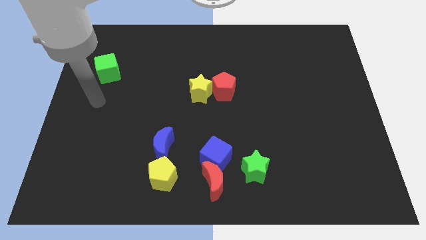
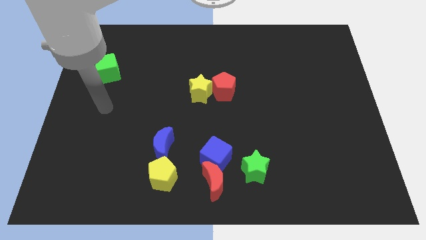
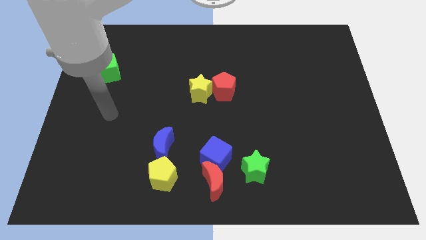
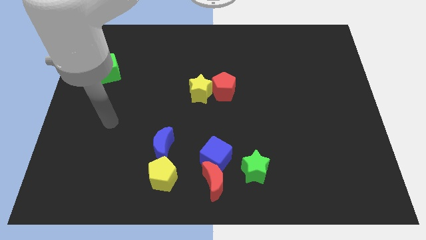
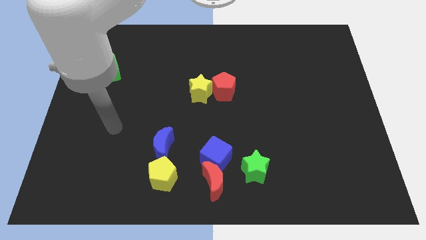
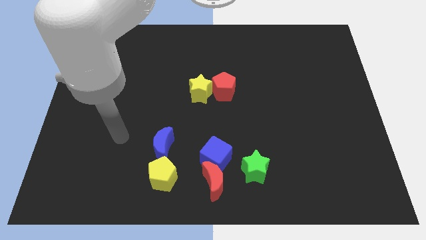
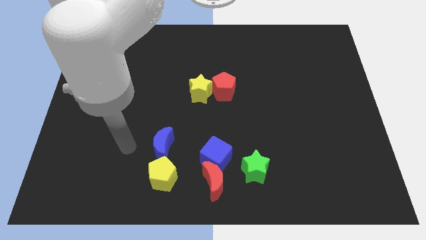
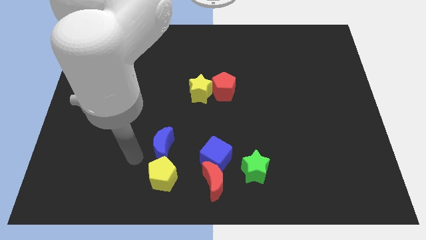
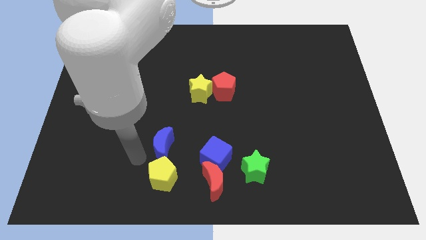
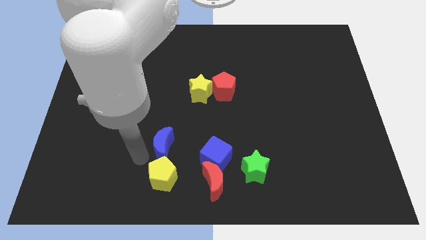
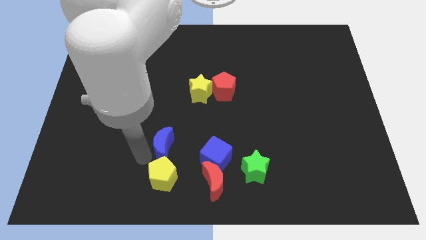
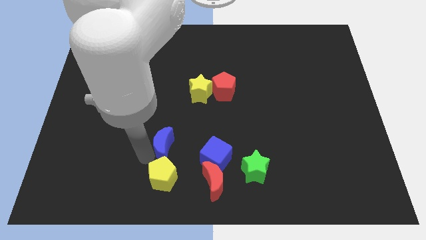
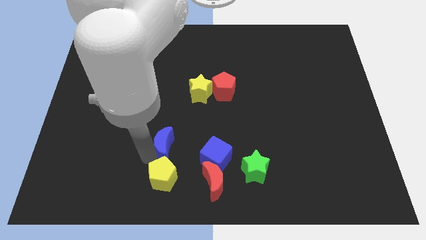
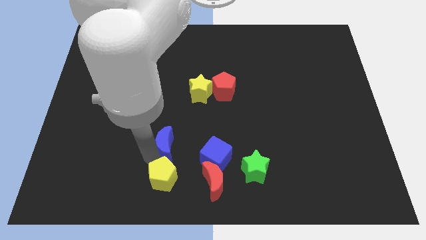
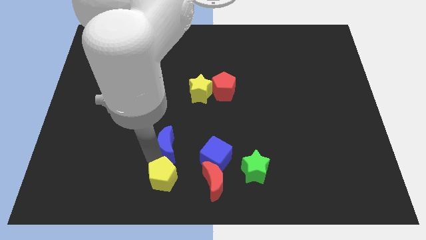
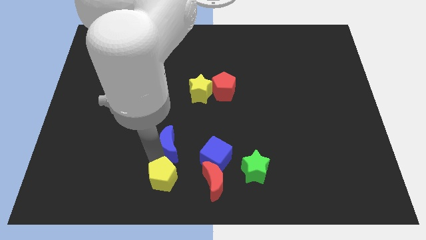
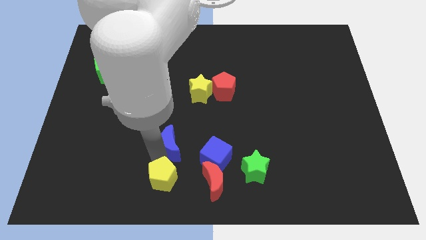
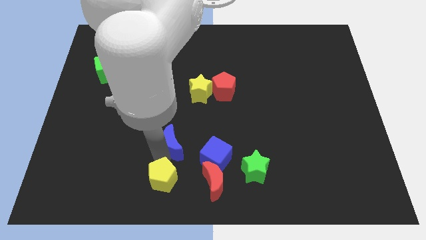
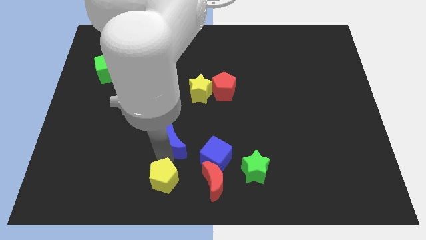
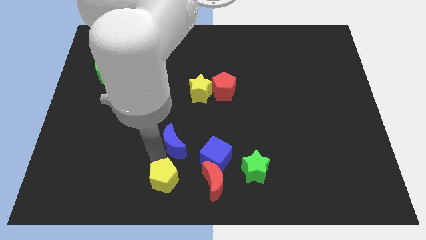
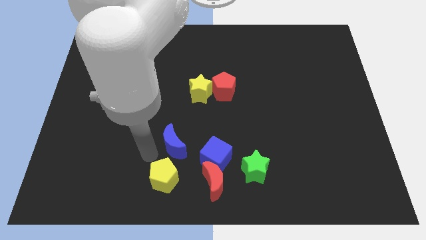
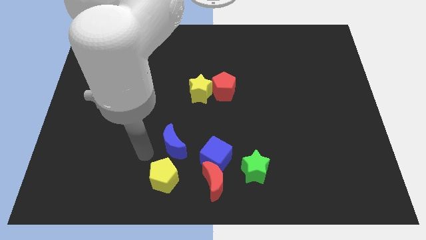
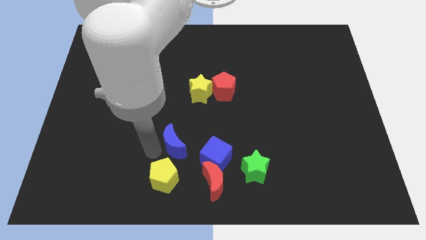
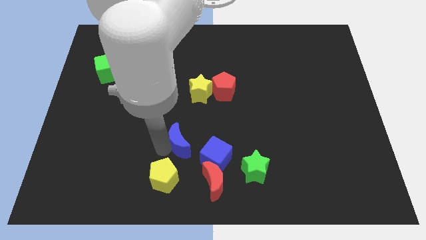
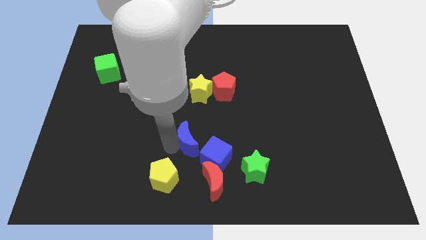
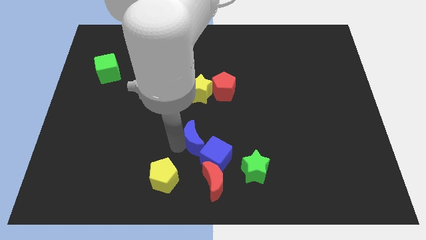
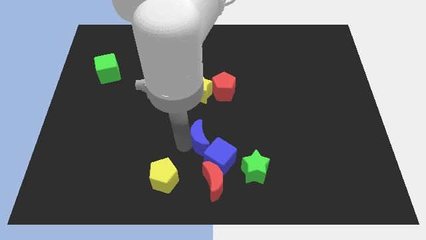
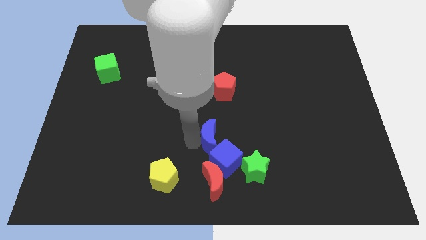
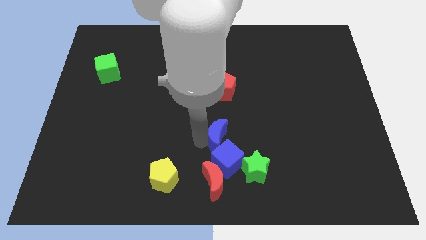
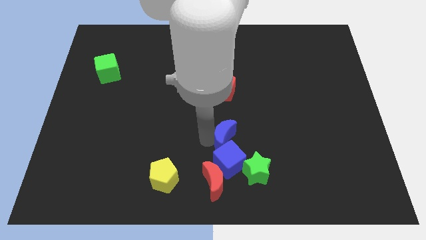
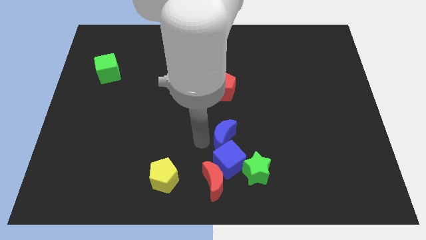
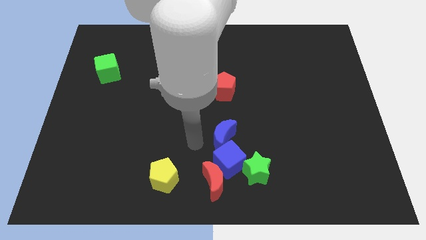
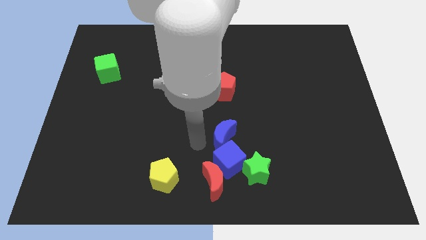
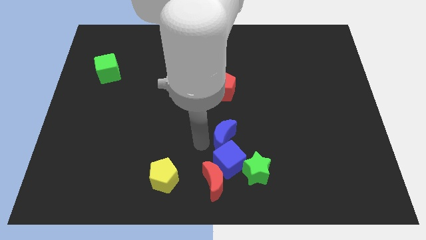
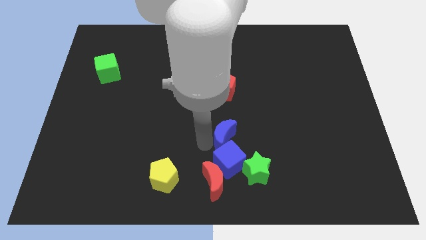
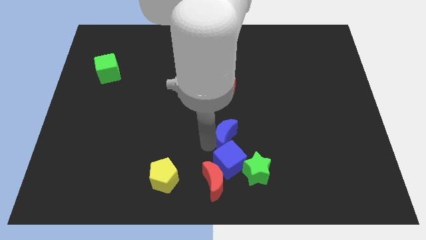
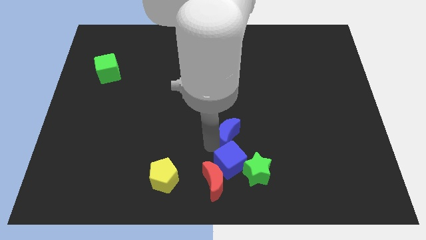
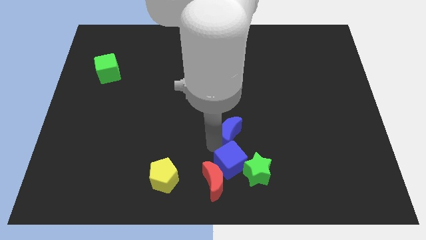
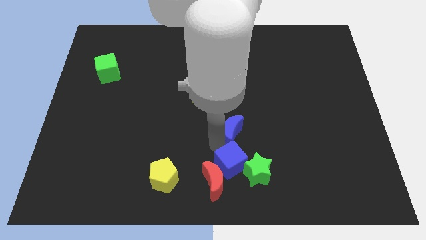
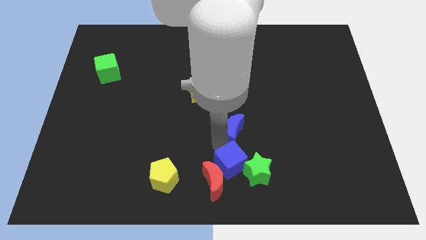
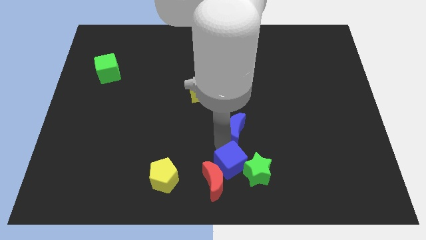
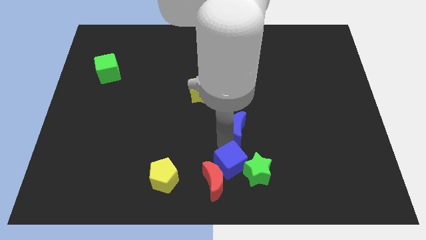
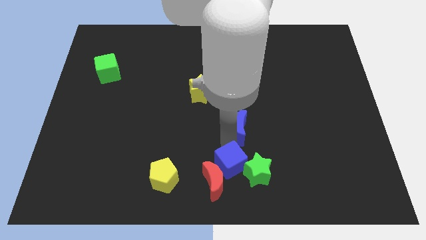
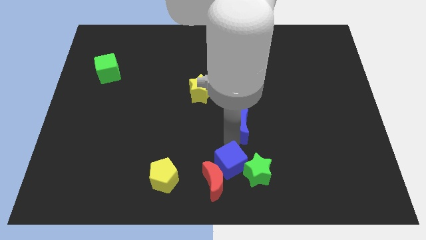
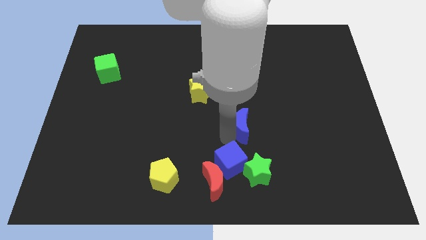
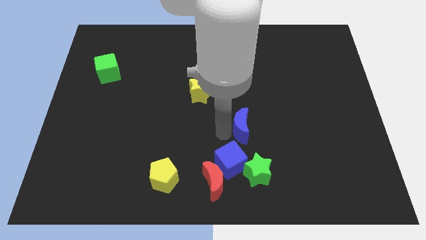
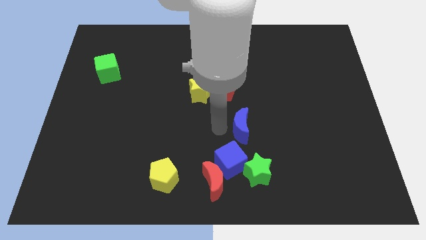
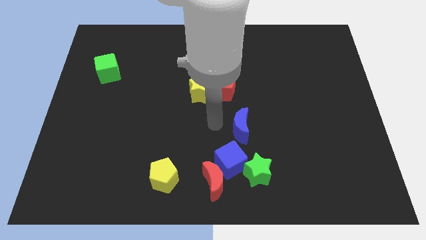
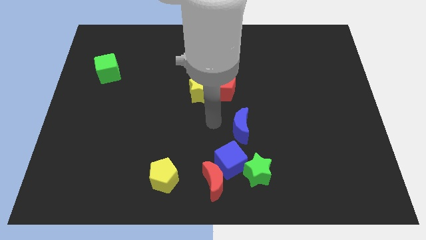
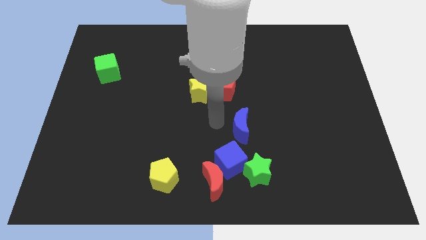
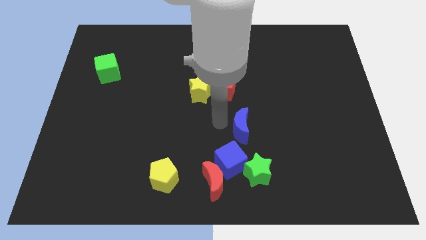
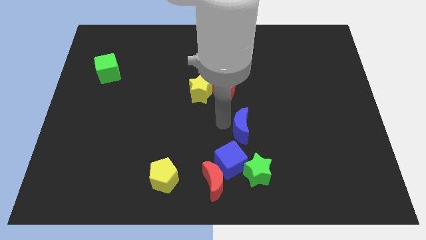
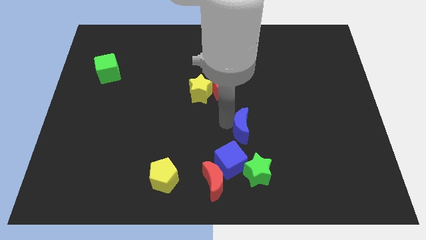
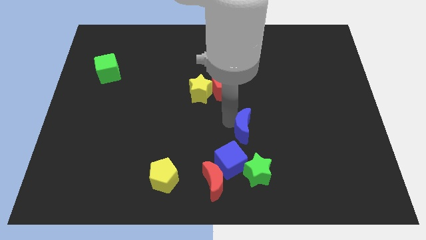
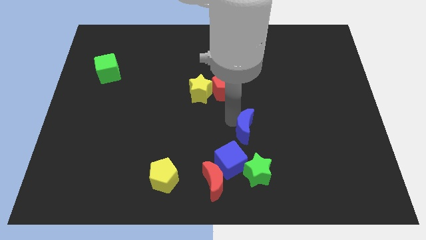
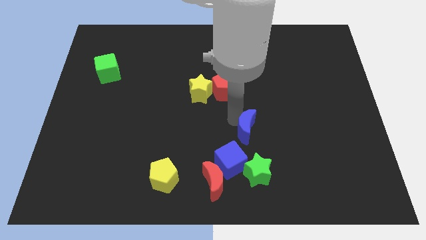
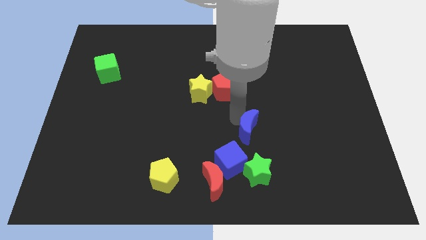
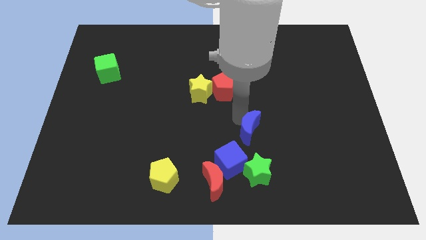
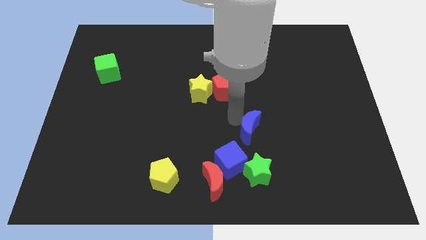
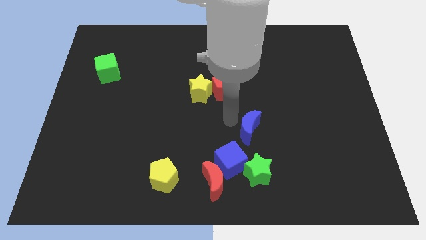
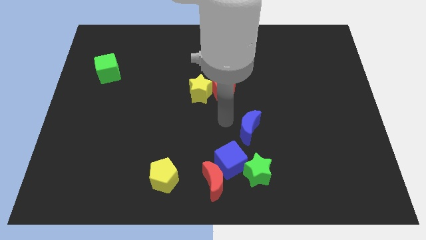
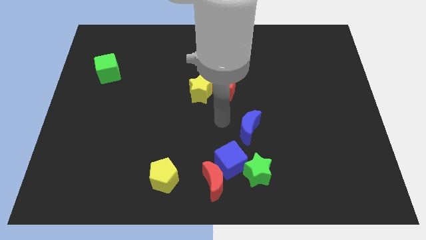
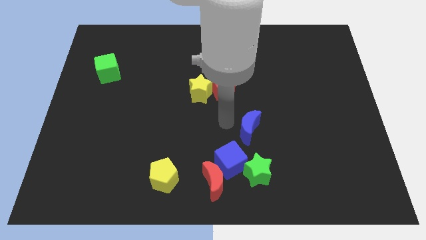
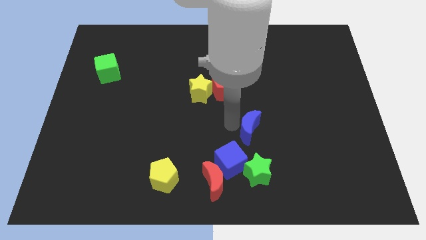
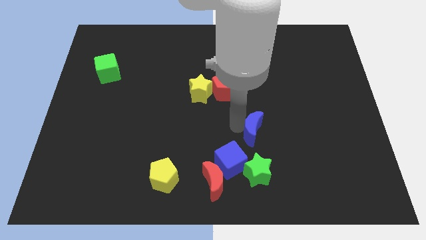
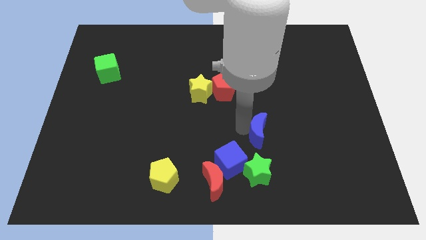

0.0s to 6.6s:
slide the blue moon right

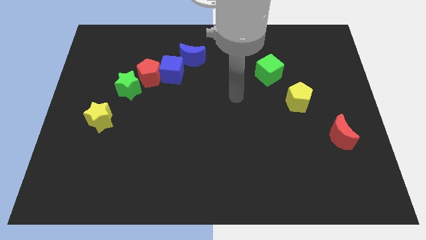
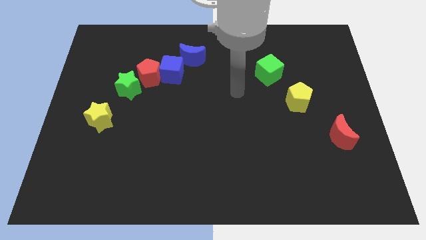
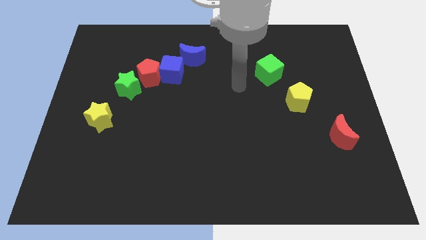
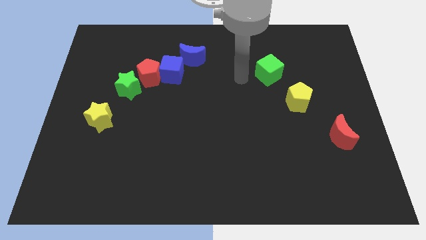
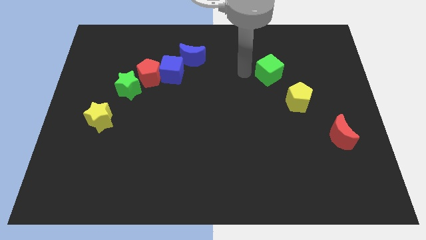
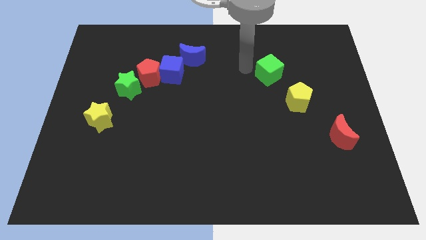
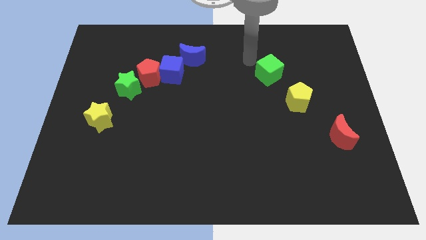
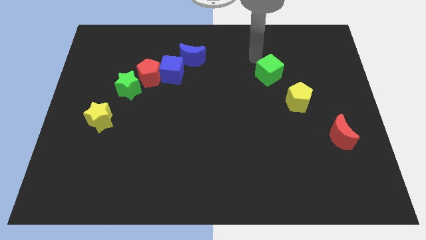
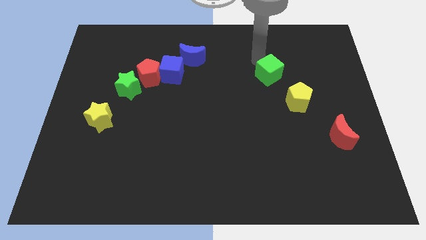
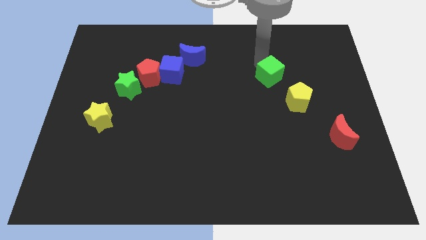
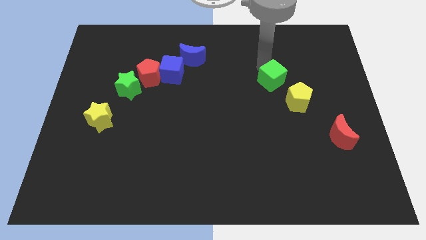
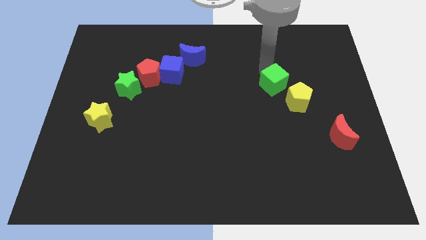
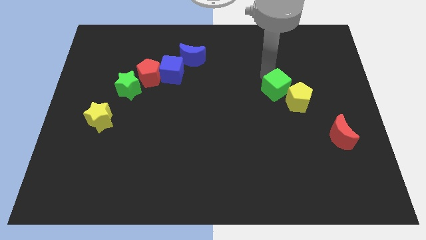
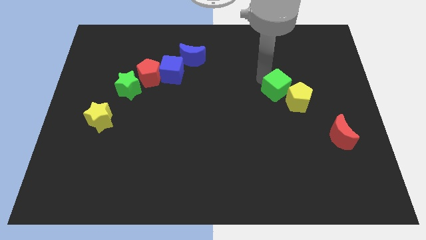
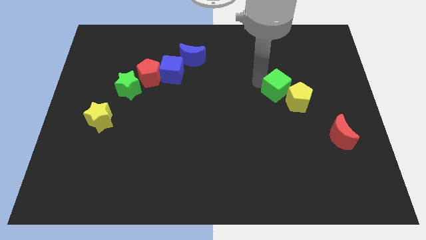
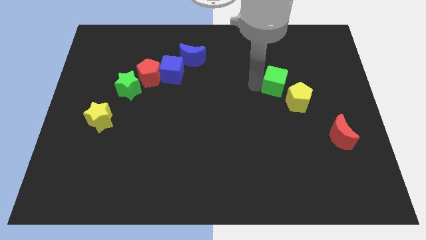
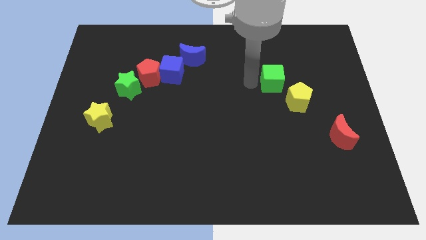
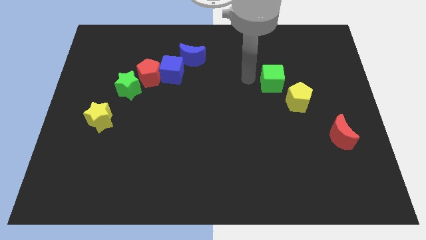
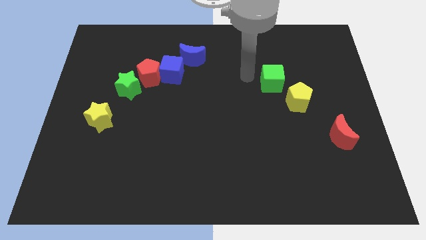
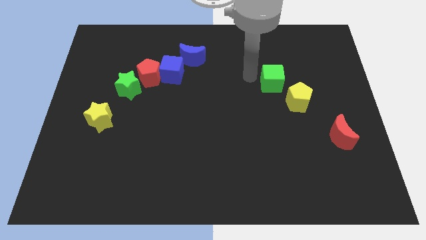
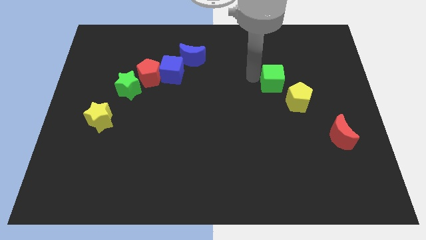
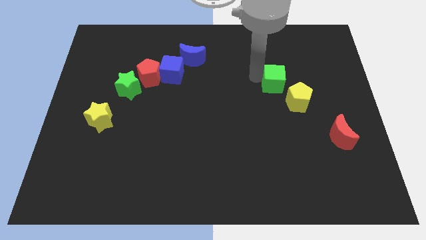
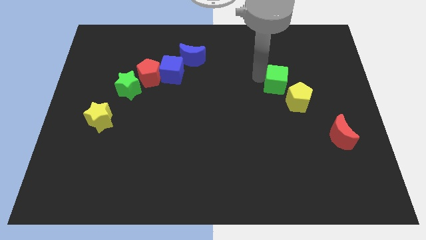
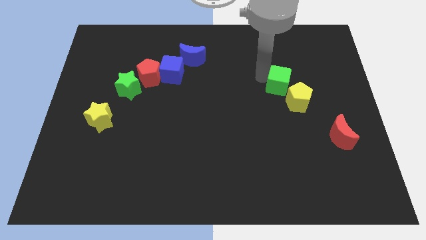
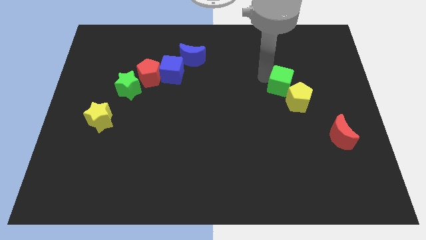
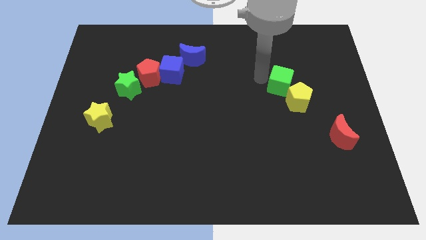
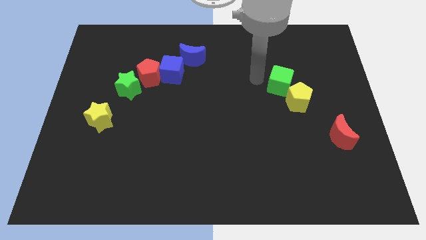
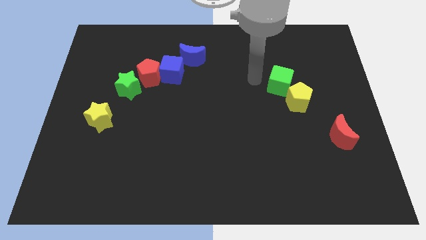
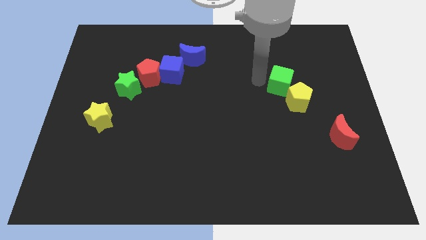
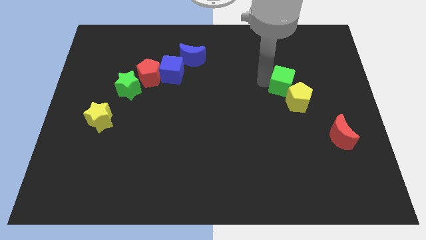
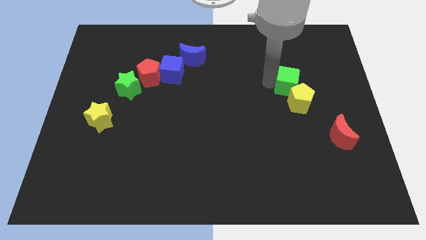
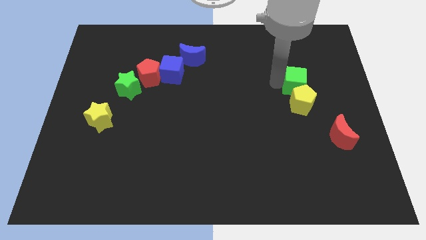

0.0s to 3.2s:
push the green cube somewhat down and then to the right
